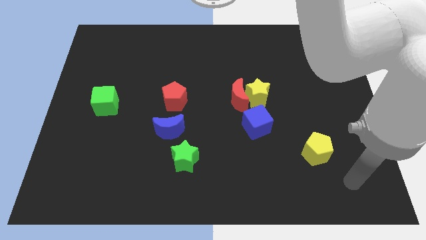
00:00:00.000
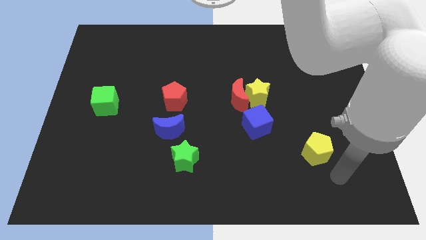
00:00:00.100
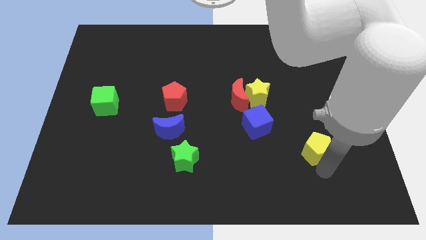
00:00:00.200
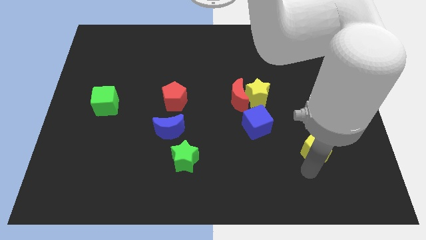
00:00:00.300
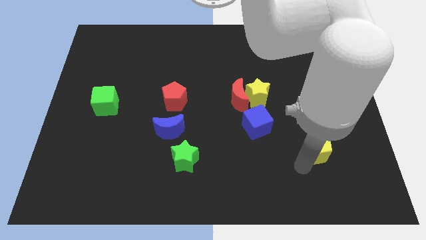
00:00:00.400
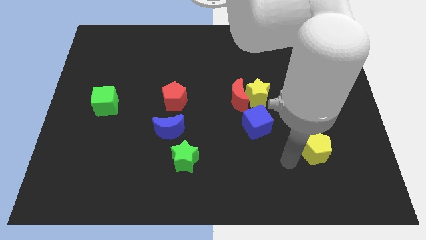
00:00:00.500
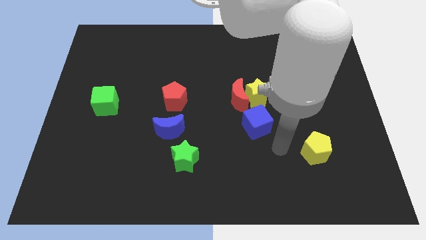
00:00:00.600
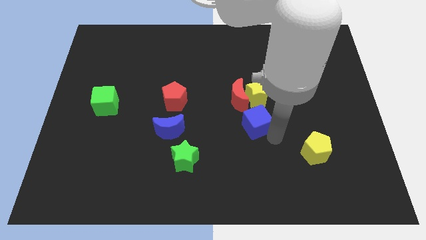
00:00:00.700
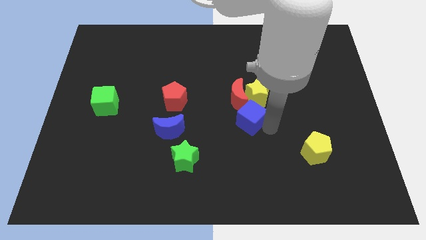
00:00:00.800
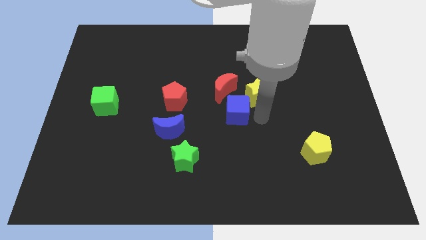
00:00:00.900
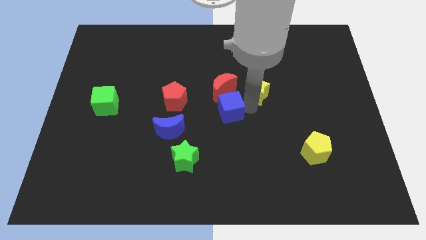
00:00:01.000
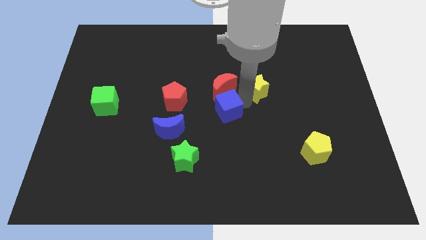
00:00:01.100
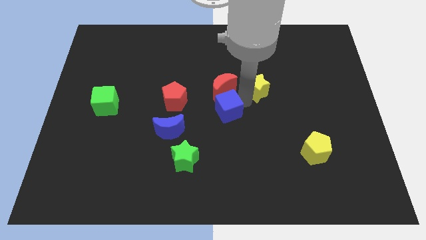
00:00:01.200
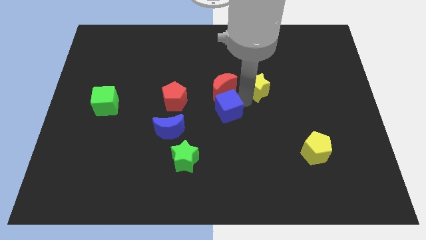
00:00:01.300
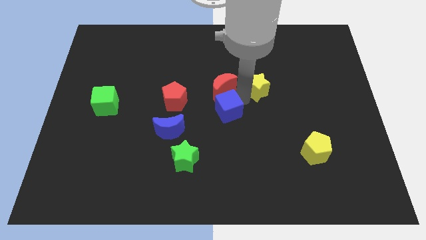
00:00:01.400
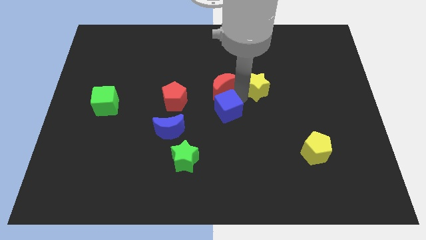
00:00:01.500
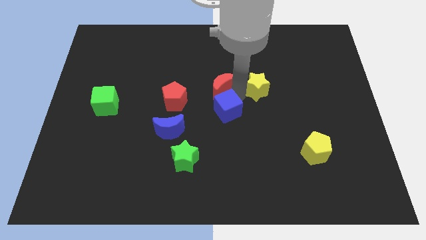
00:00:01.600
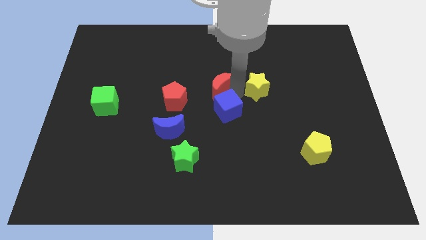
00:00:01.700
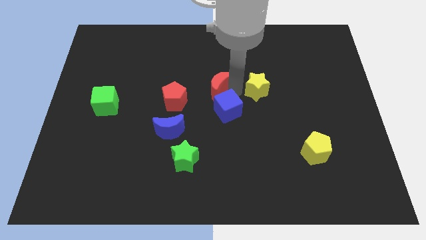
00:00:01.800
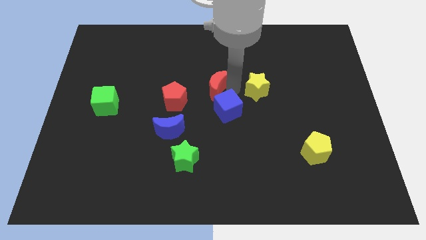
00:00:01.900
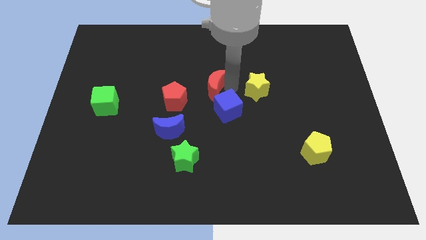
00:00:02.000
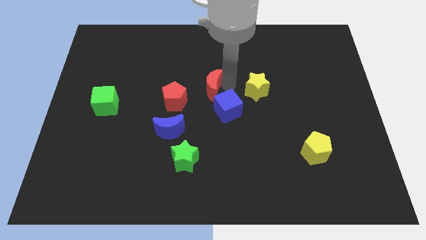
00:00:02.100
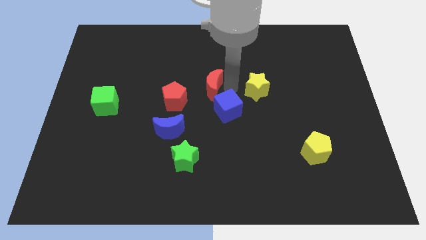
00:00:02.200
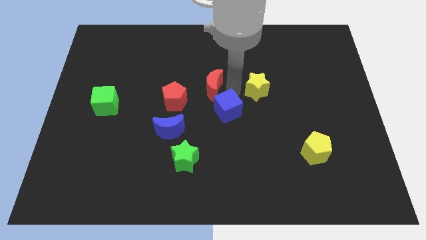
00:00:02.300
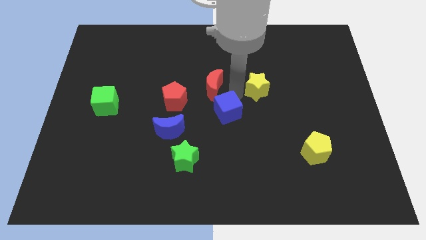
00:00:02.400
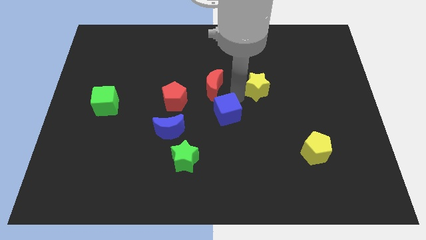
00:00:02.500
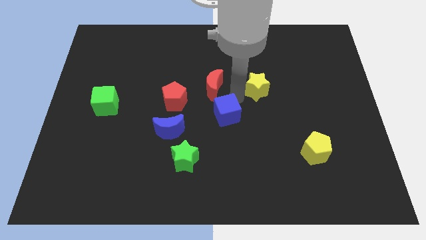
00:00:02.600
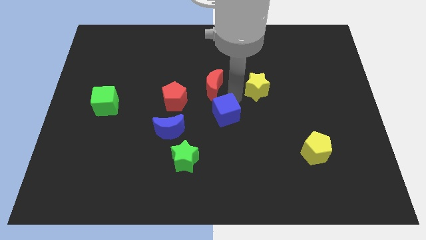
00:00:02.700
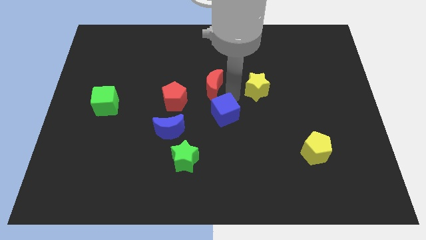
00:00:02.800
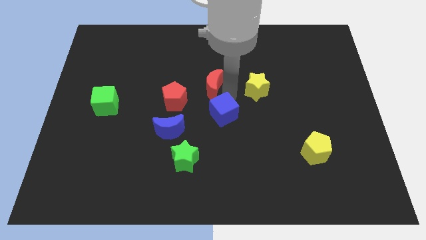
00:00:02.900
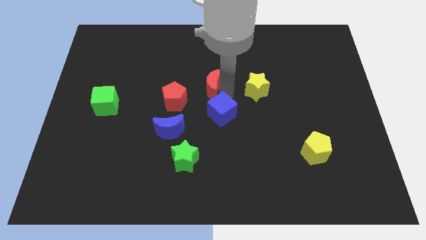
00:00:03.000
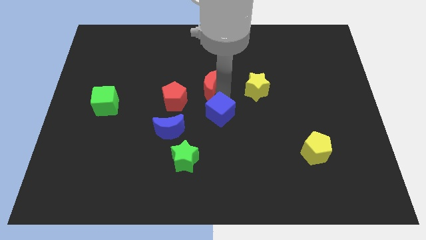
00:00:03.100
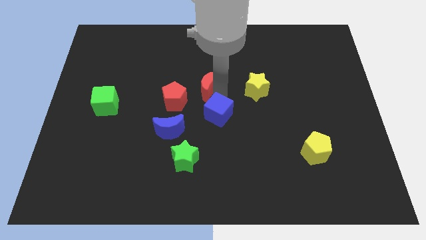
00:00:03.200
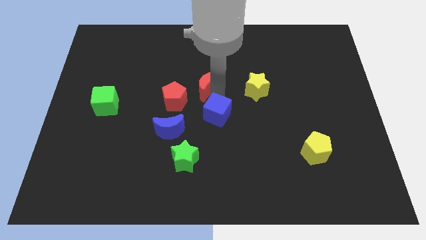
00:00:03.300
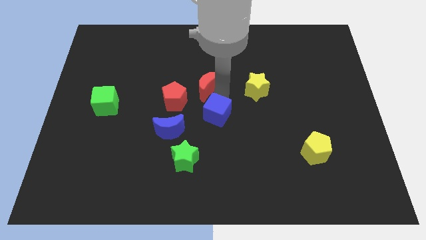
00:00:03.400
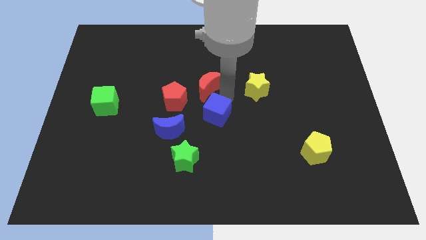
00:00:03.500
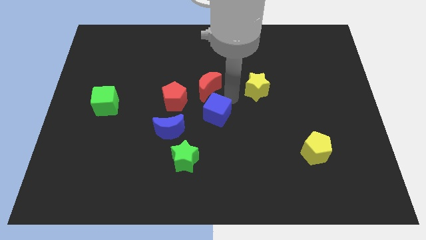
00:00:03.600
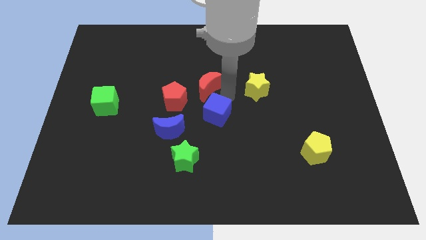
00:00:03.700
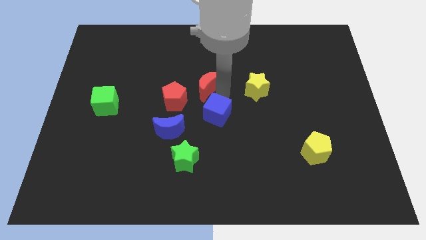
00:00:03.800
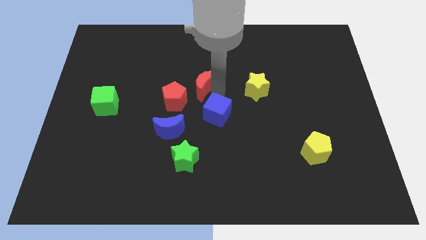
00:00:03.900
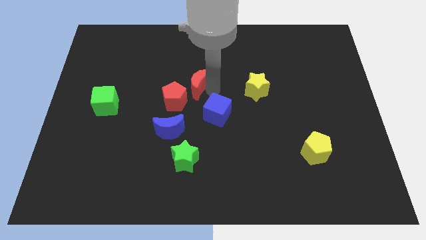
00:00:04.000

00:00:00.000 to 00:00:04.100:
separate the red moon from the yellow star and blue cube

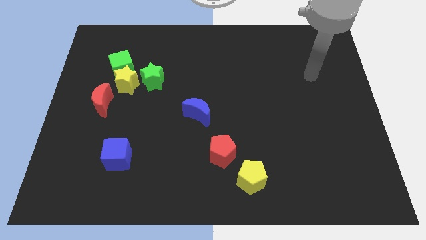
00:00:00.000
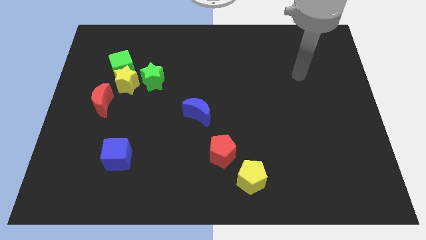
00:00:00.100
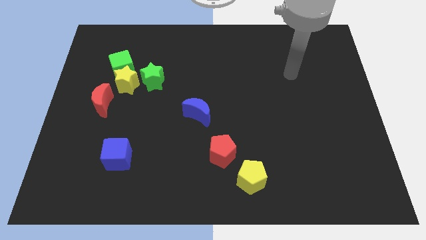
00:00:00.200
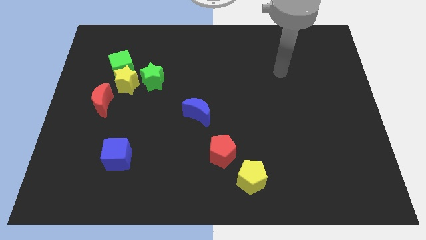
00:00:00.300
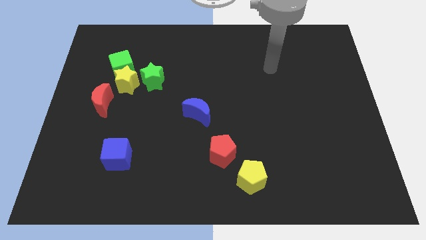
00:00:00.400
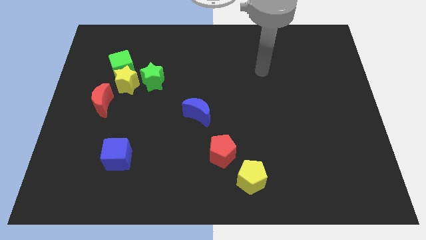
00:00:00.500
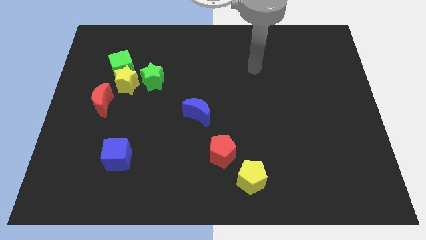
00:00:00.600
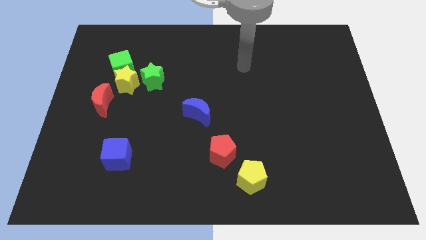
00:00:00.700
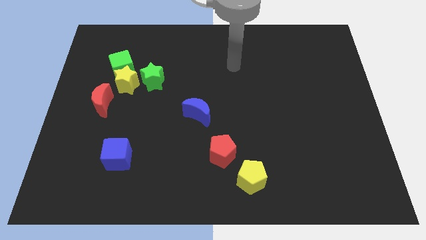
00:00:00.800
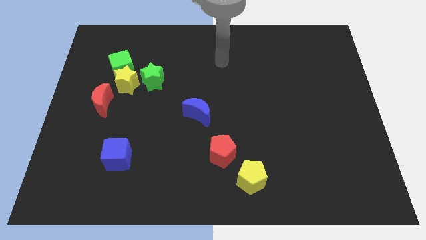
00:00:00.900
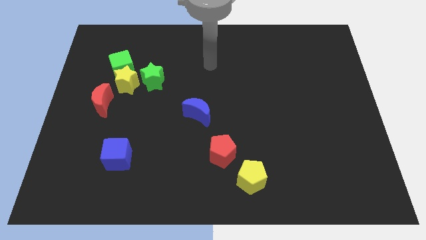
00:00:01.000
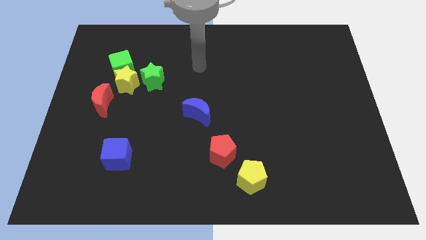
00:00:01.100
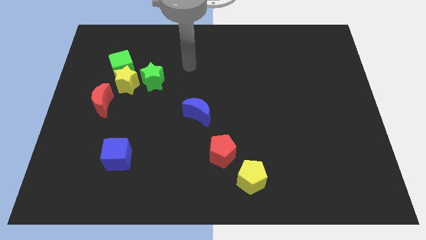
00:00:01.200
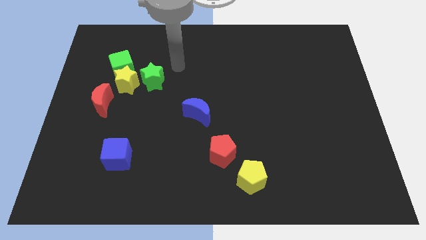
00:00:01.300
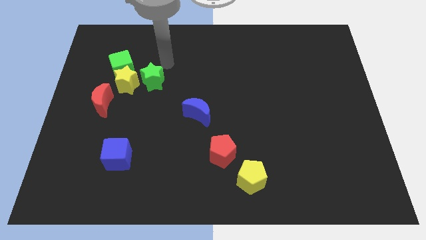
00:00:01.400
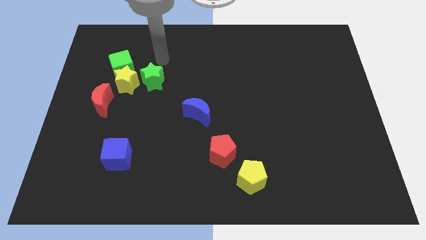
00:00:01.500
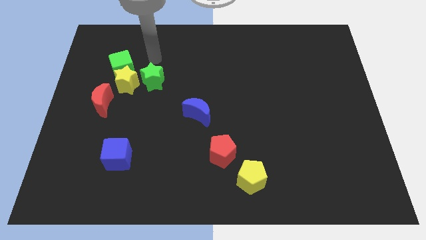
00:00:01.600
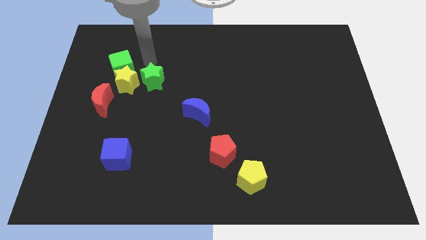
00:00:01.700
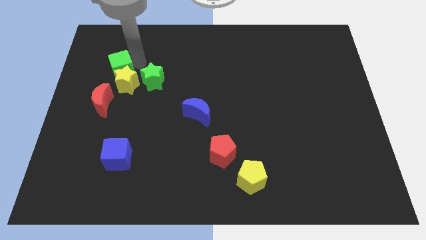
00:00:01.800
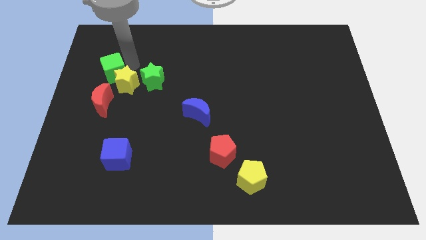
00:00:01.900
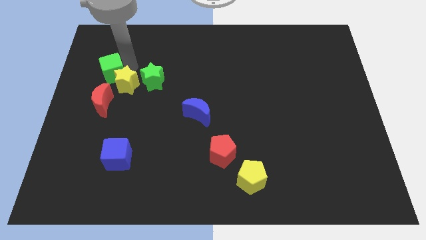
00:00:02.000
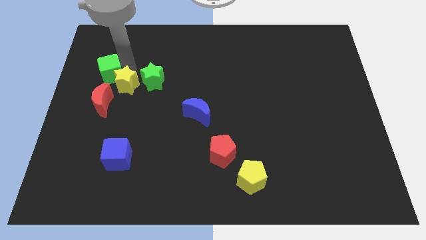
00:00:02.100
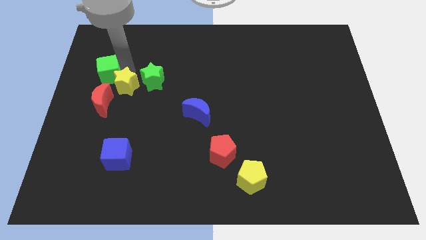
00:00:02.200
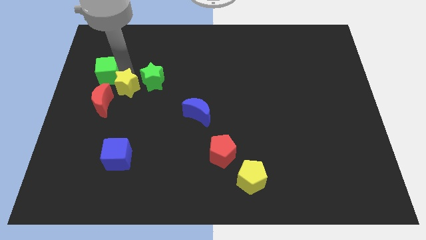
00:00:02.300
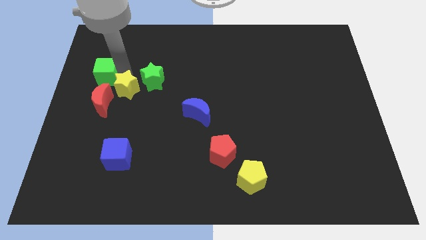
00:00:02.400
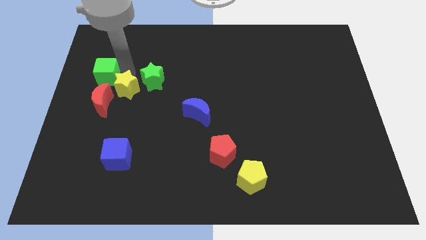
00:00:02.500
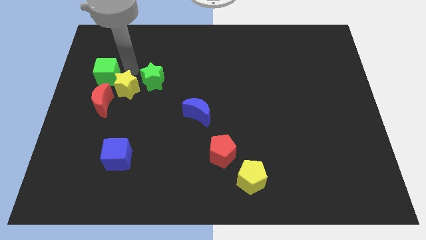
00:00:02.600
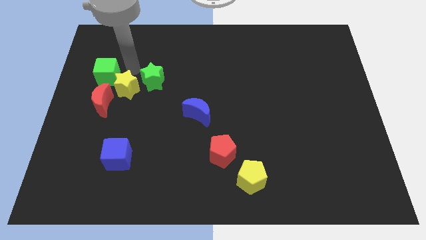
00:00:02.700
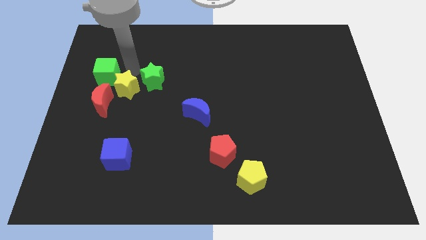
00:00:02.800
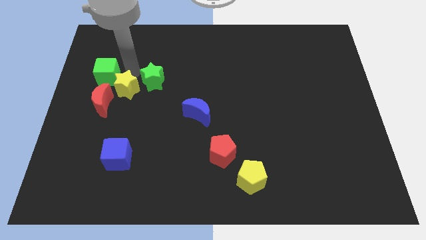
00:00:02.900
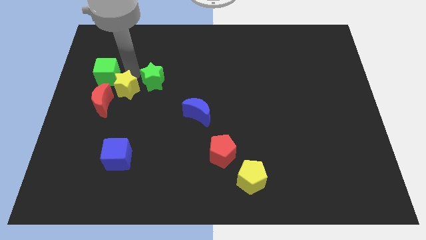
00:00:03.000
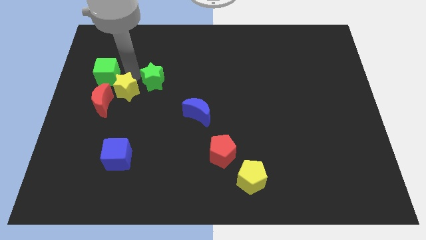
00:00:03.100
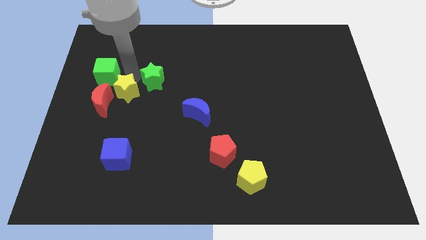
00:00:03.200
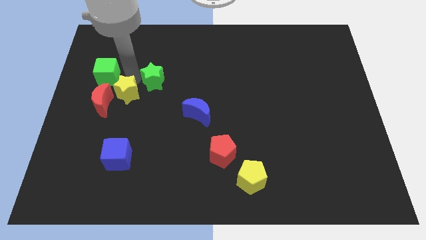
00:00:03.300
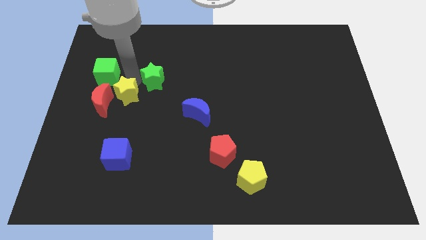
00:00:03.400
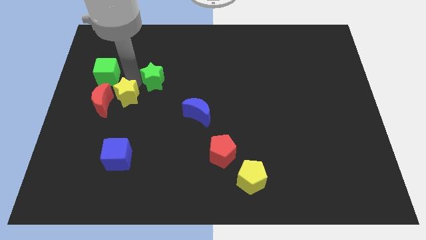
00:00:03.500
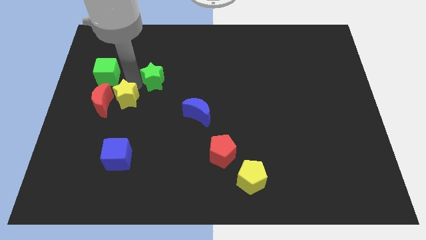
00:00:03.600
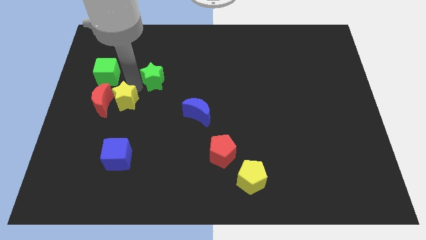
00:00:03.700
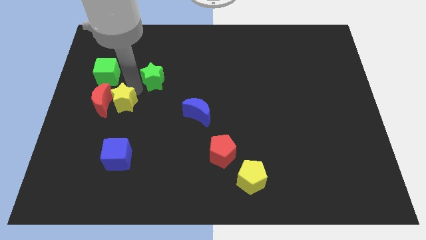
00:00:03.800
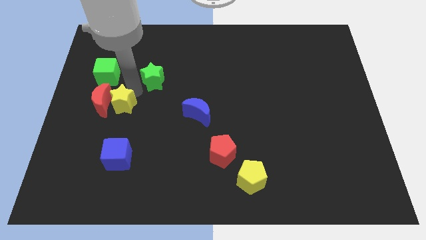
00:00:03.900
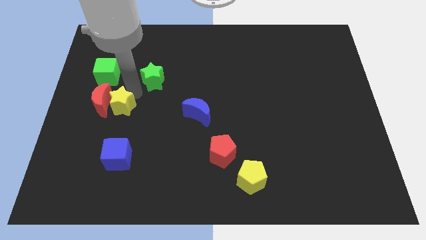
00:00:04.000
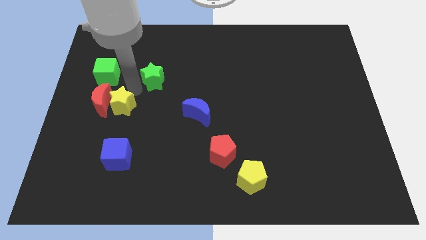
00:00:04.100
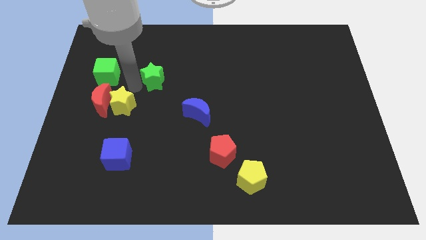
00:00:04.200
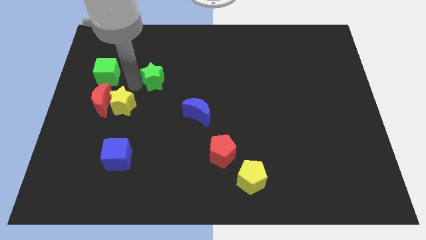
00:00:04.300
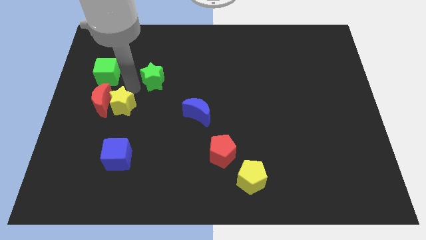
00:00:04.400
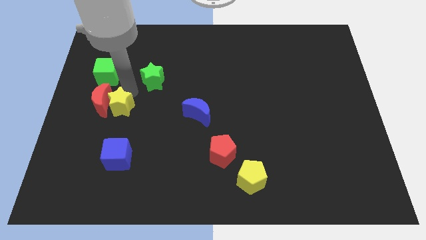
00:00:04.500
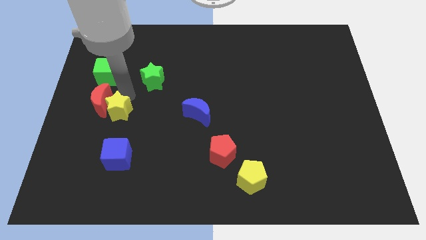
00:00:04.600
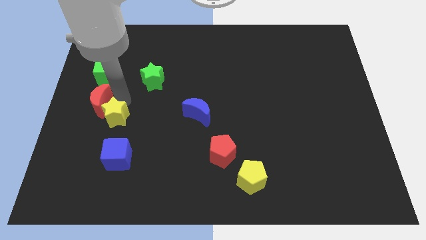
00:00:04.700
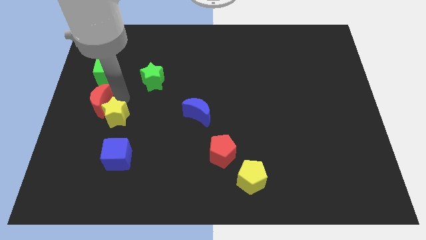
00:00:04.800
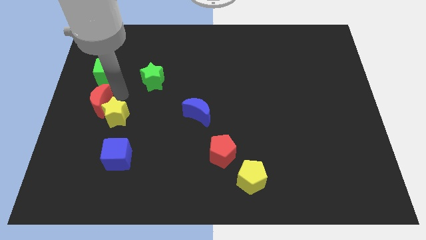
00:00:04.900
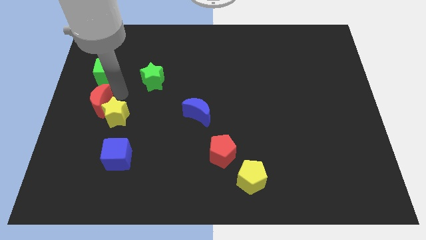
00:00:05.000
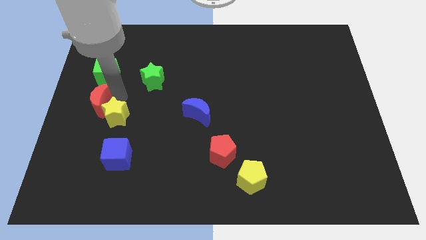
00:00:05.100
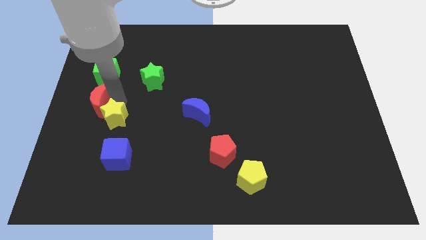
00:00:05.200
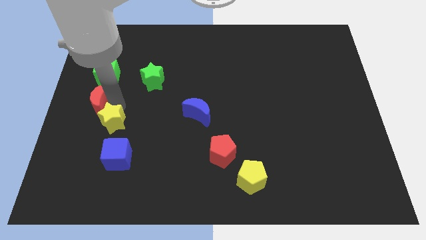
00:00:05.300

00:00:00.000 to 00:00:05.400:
pull the yellow star apart from the clump
